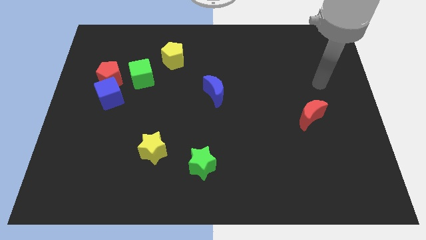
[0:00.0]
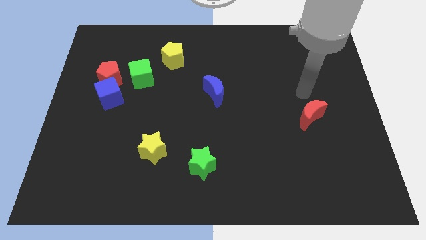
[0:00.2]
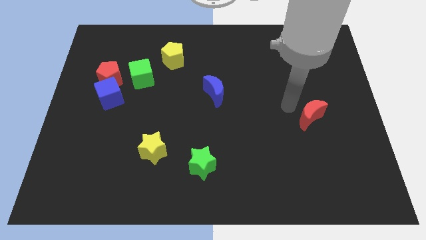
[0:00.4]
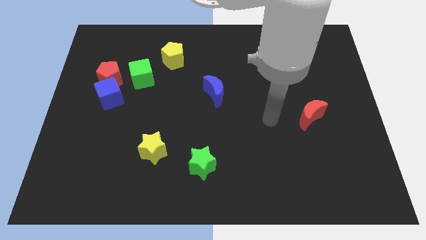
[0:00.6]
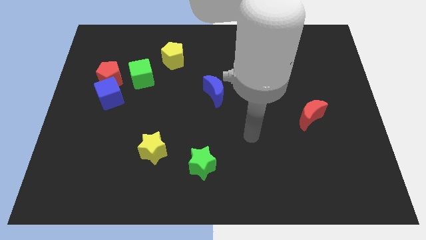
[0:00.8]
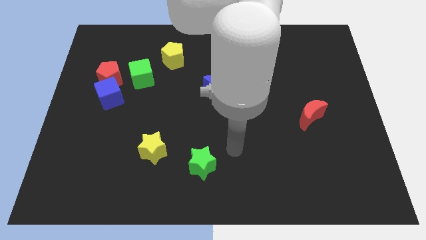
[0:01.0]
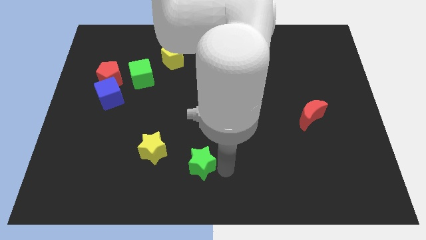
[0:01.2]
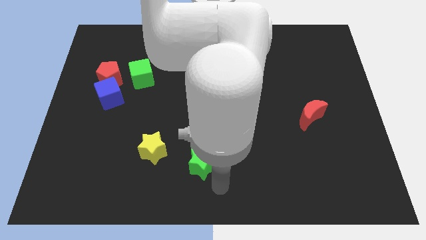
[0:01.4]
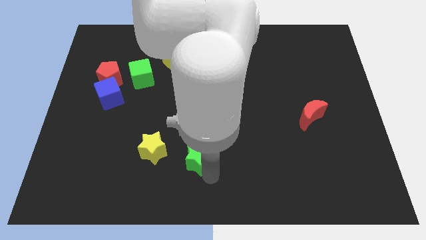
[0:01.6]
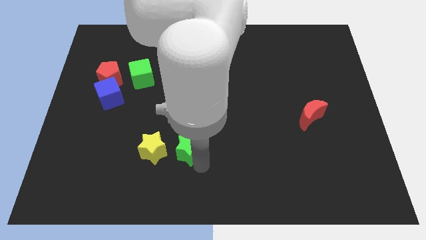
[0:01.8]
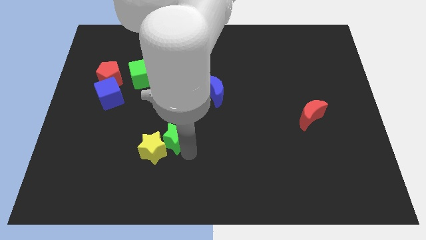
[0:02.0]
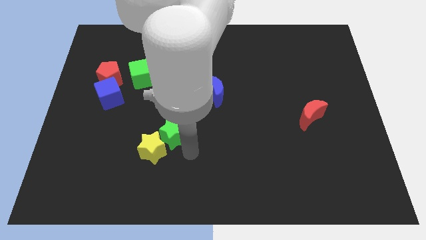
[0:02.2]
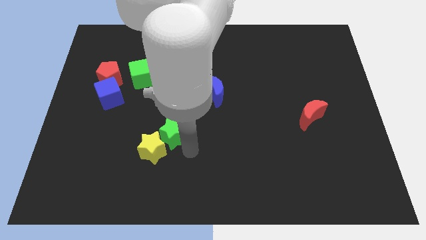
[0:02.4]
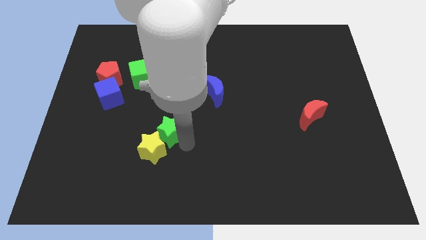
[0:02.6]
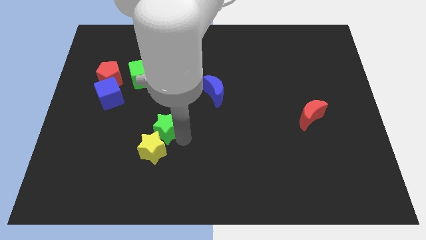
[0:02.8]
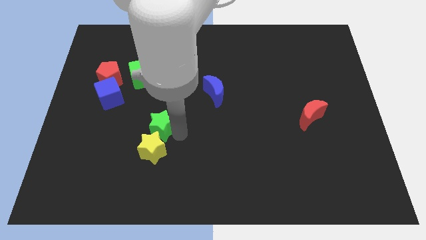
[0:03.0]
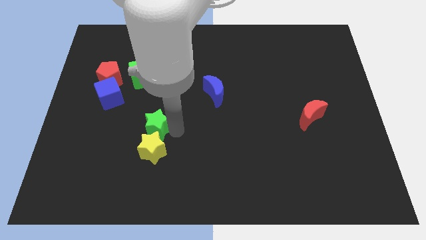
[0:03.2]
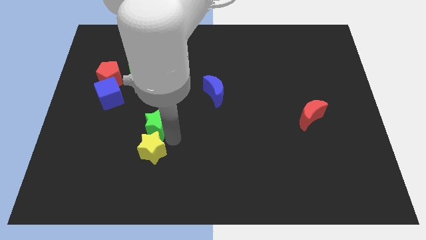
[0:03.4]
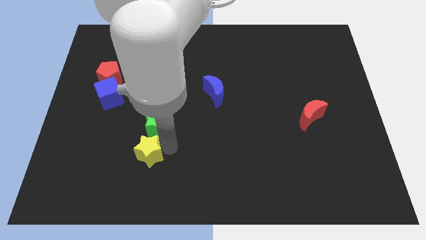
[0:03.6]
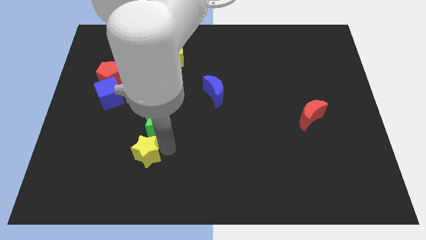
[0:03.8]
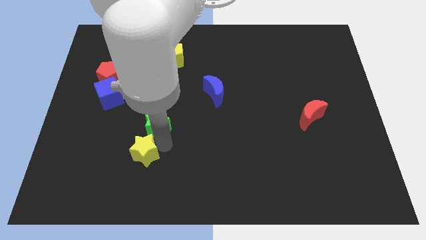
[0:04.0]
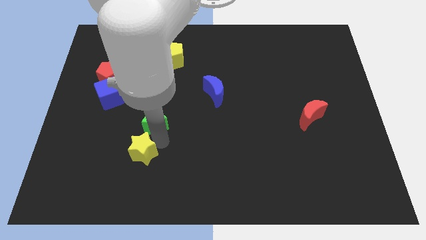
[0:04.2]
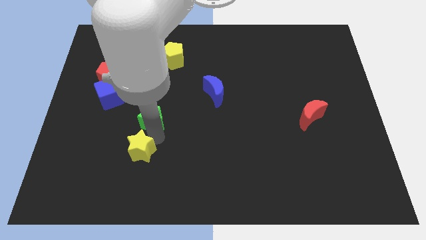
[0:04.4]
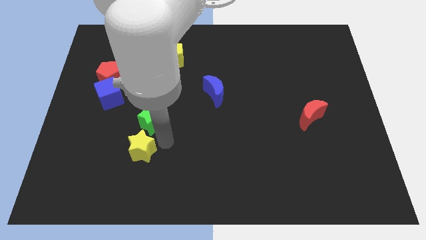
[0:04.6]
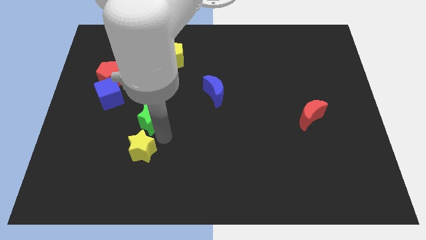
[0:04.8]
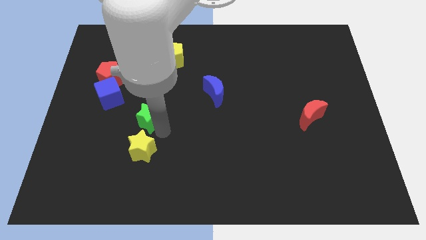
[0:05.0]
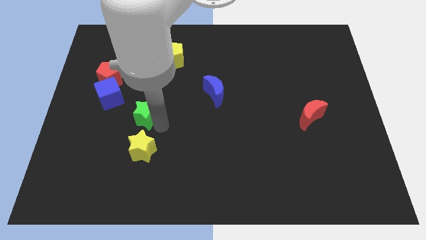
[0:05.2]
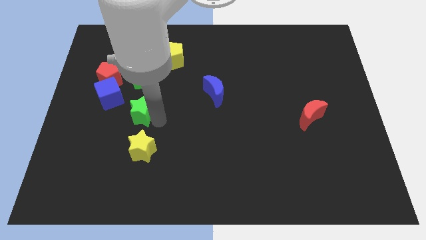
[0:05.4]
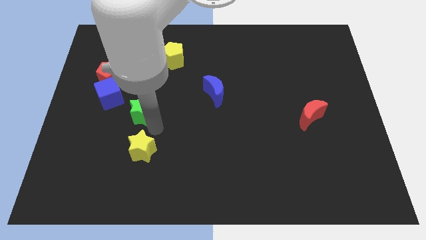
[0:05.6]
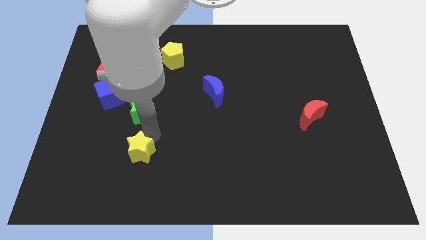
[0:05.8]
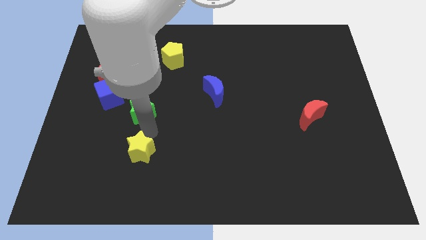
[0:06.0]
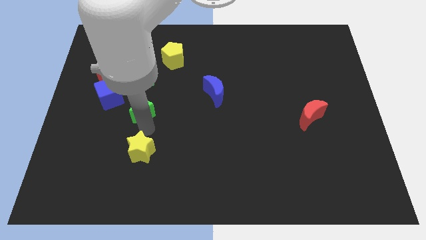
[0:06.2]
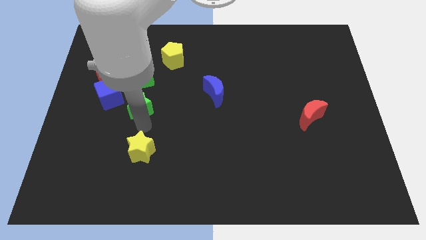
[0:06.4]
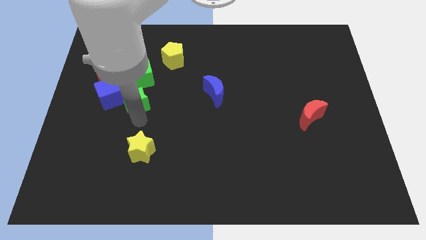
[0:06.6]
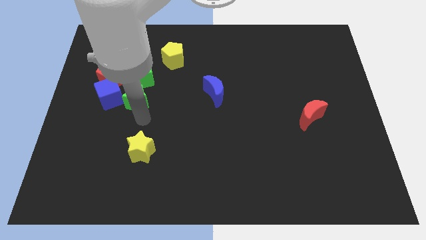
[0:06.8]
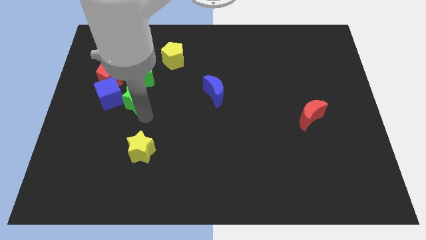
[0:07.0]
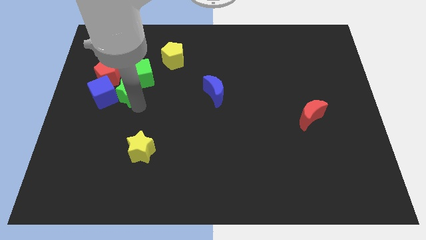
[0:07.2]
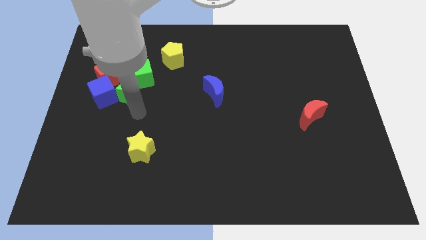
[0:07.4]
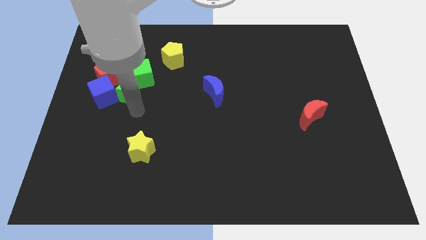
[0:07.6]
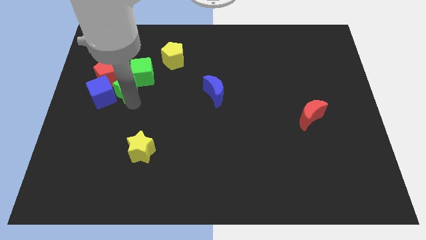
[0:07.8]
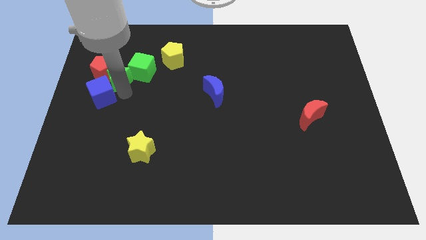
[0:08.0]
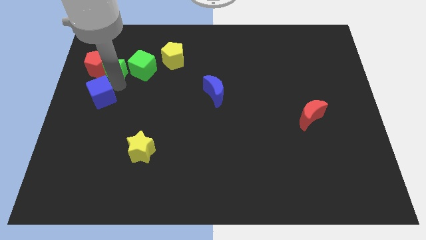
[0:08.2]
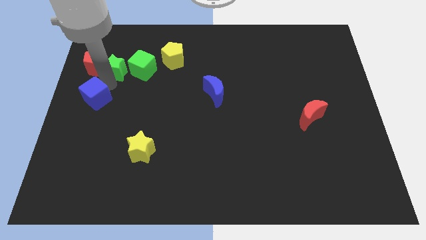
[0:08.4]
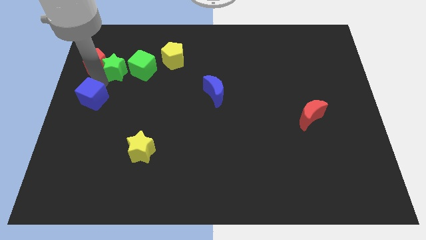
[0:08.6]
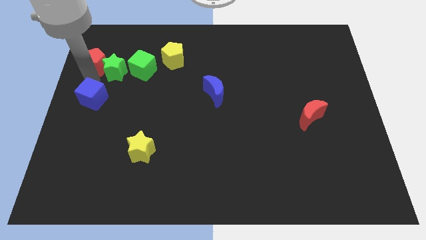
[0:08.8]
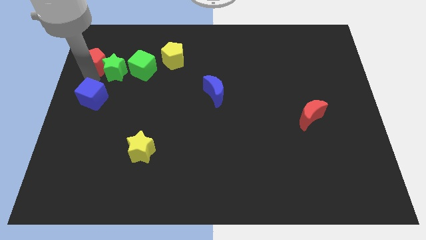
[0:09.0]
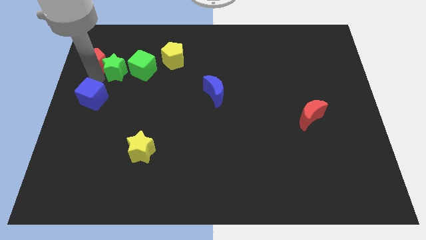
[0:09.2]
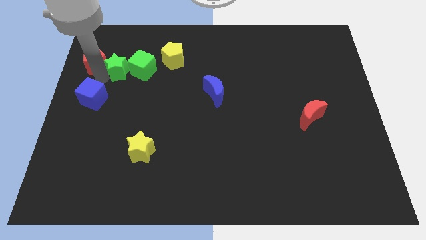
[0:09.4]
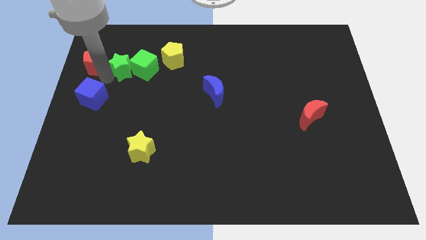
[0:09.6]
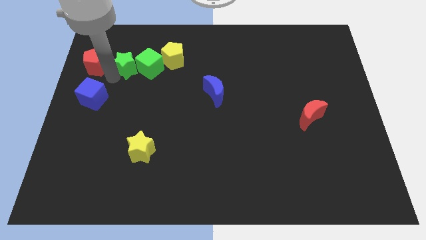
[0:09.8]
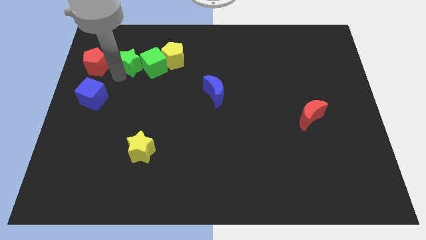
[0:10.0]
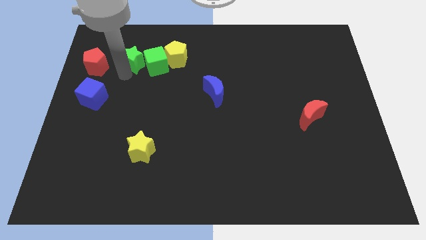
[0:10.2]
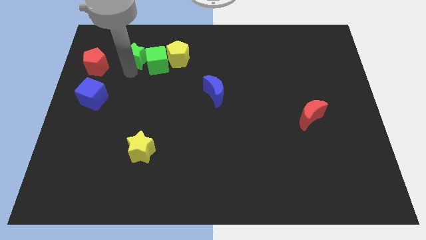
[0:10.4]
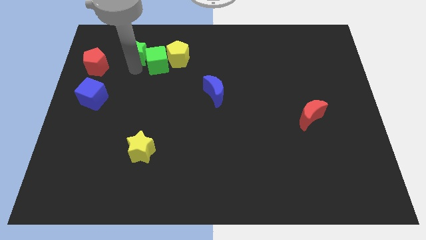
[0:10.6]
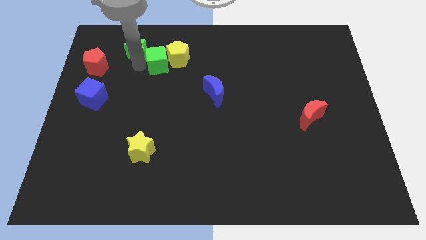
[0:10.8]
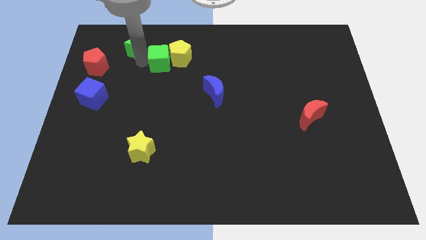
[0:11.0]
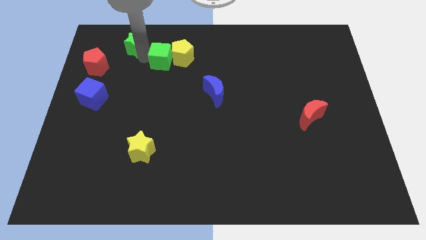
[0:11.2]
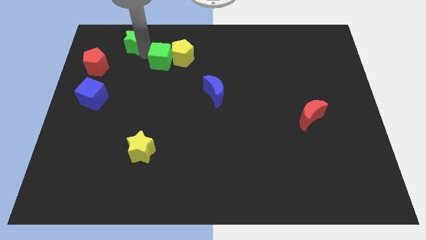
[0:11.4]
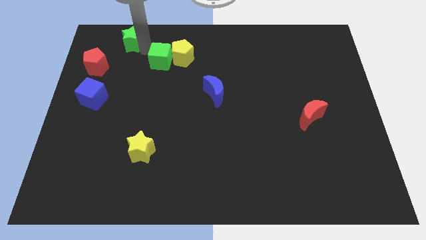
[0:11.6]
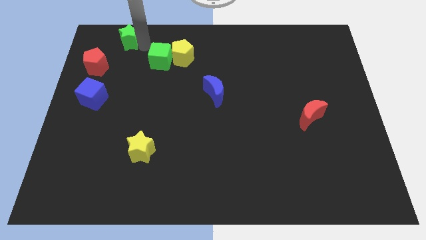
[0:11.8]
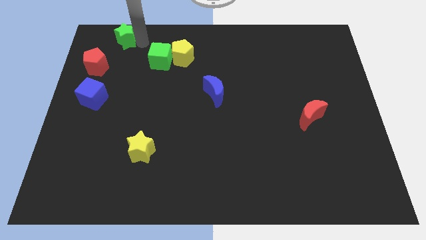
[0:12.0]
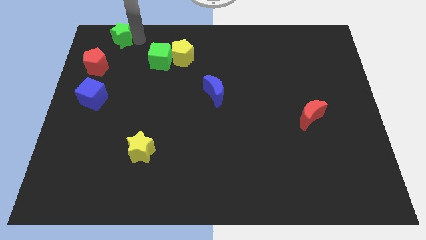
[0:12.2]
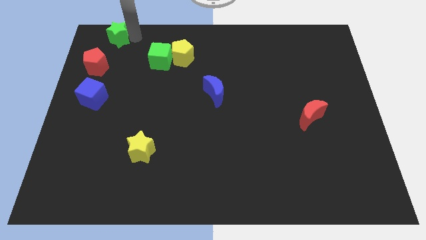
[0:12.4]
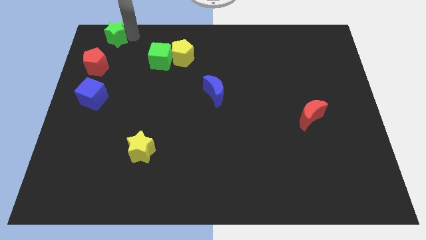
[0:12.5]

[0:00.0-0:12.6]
put the green star to the top left
